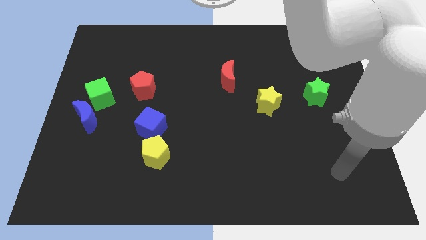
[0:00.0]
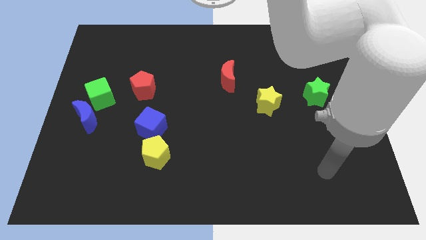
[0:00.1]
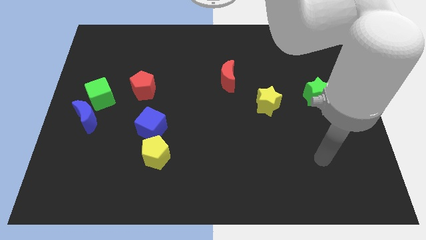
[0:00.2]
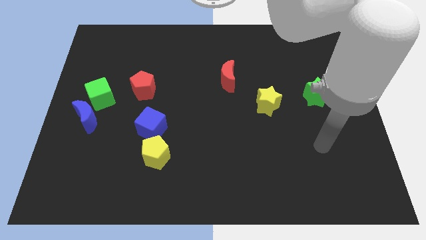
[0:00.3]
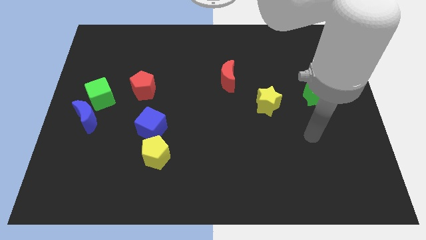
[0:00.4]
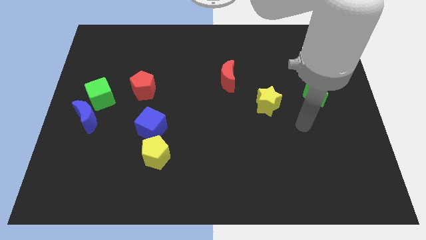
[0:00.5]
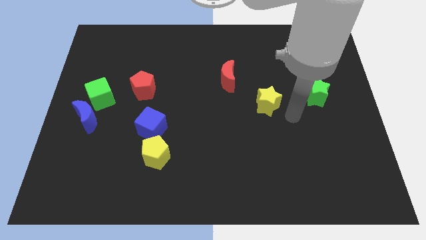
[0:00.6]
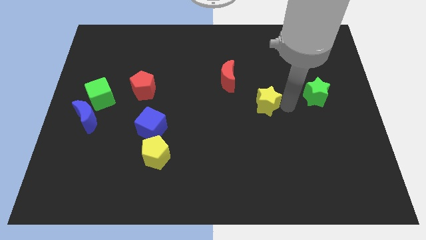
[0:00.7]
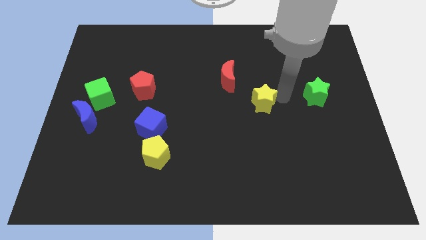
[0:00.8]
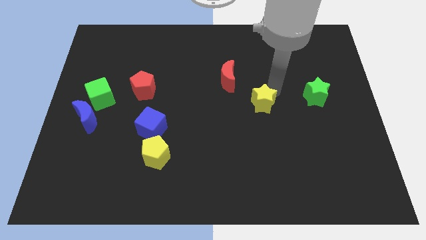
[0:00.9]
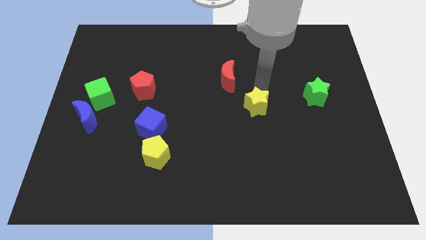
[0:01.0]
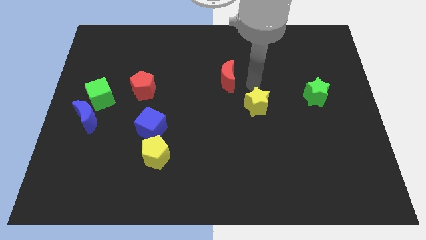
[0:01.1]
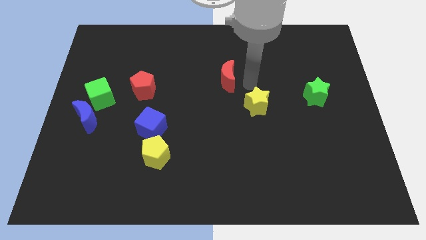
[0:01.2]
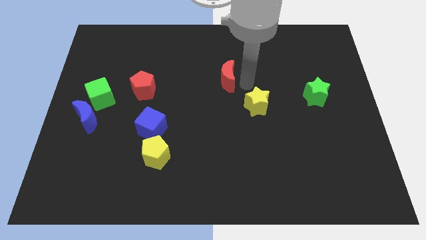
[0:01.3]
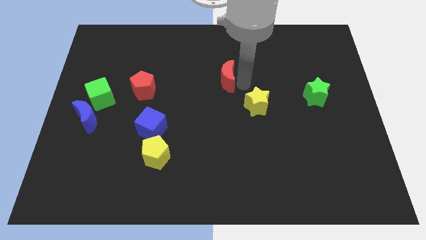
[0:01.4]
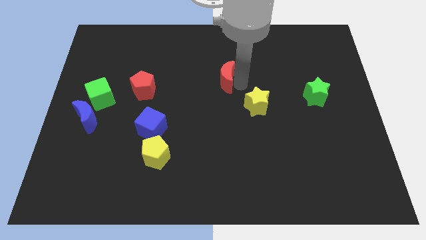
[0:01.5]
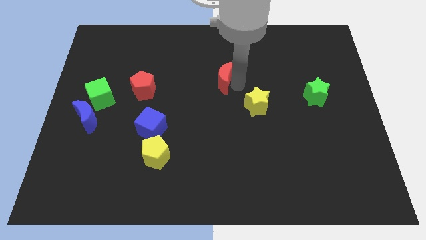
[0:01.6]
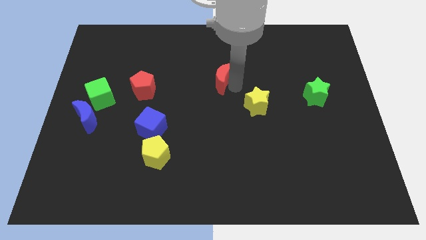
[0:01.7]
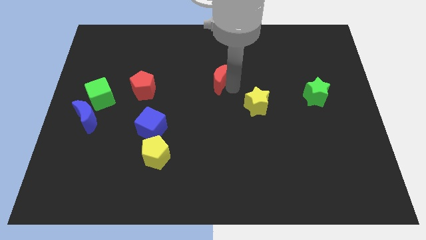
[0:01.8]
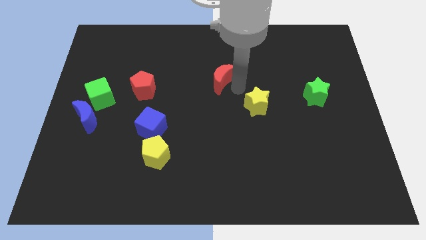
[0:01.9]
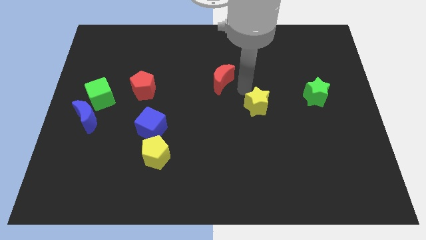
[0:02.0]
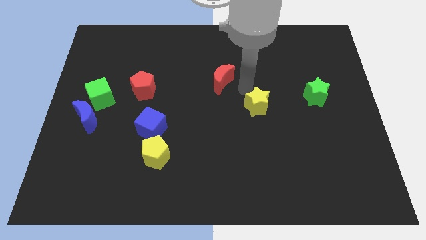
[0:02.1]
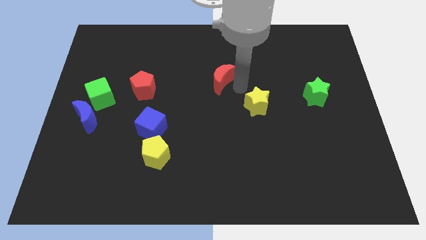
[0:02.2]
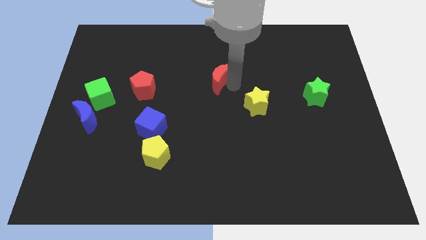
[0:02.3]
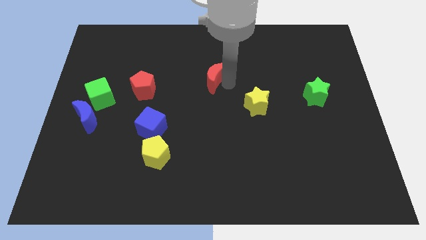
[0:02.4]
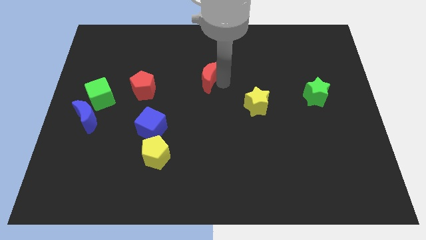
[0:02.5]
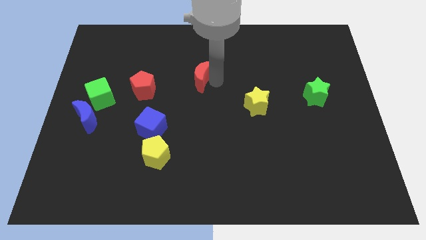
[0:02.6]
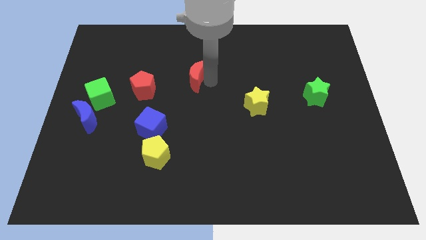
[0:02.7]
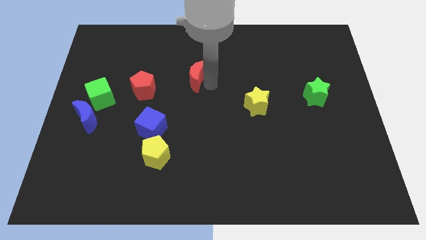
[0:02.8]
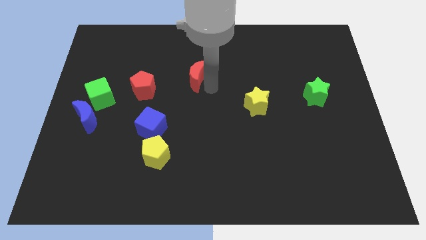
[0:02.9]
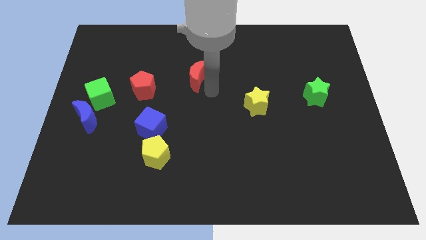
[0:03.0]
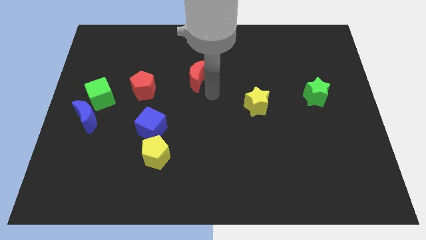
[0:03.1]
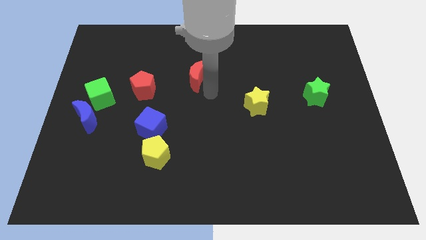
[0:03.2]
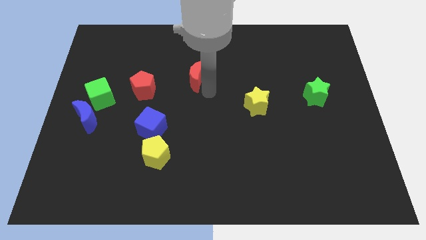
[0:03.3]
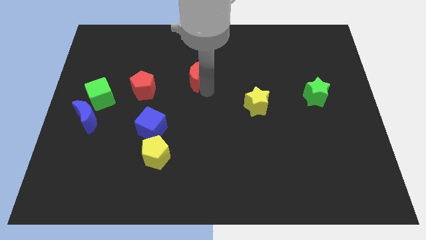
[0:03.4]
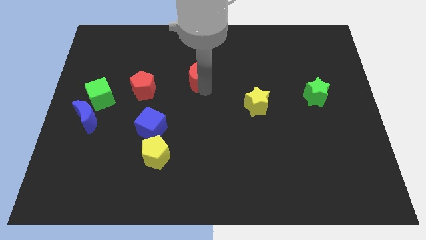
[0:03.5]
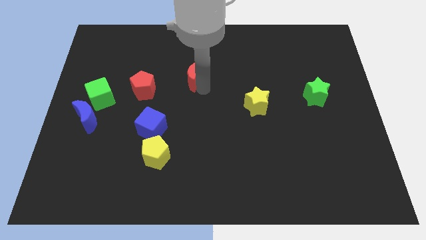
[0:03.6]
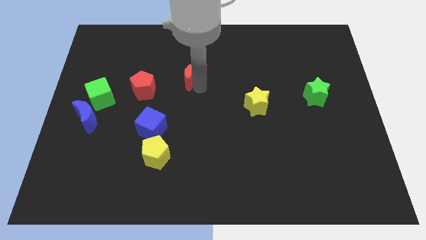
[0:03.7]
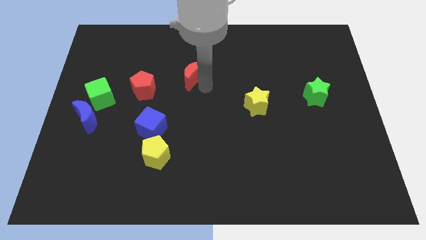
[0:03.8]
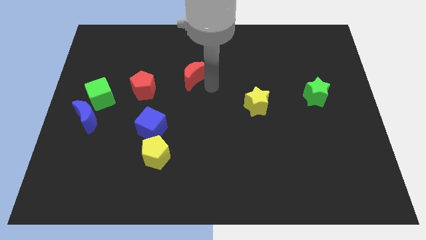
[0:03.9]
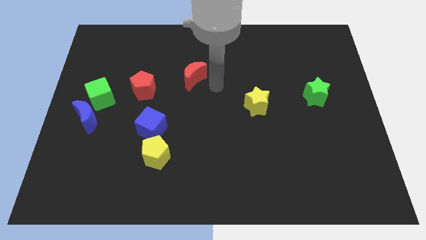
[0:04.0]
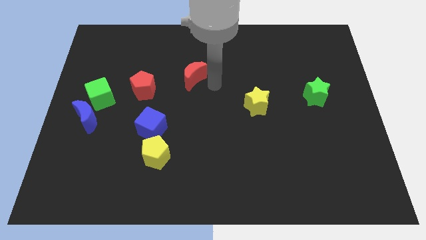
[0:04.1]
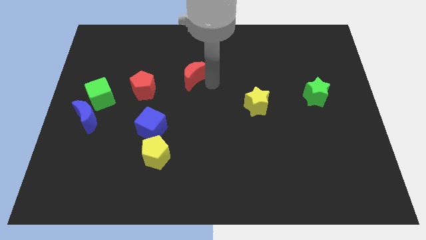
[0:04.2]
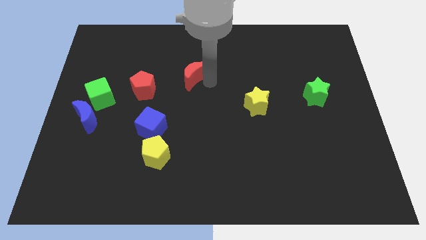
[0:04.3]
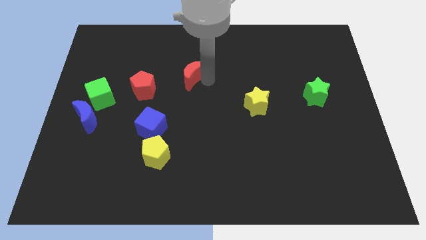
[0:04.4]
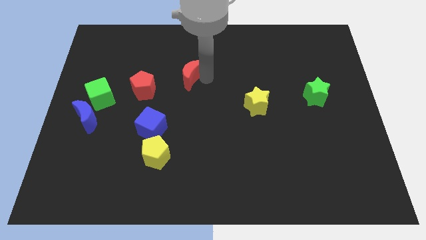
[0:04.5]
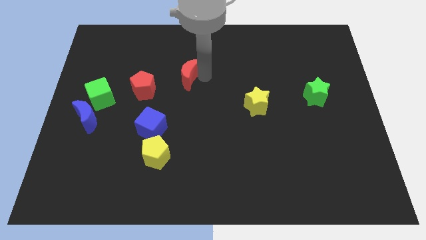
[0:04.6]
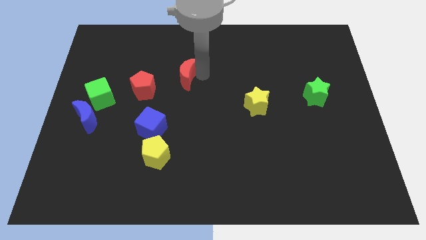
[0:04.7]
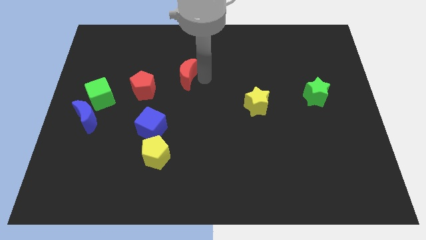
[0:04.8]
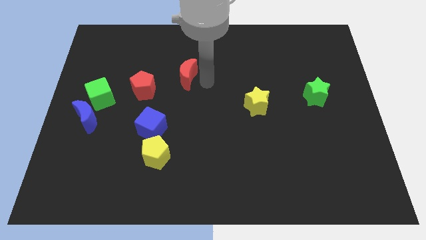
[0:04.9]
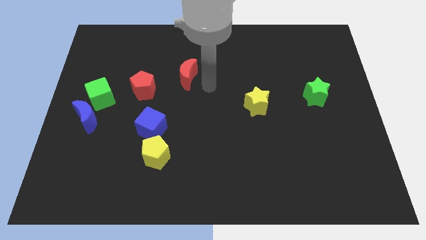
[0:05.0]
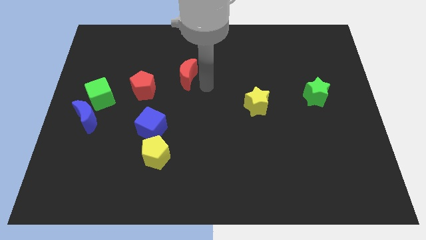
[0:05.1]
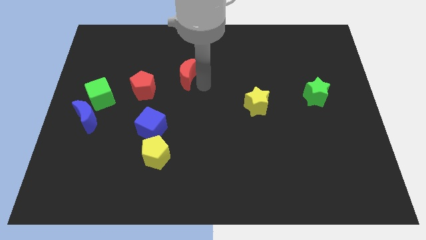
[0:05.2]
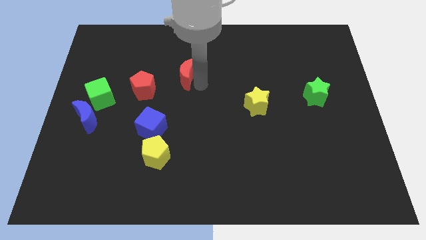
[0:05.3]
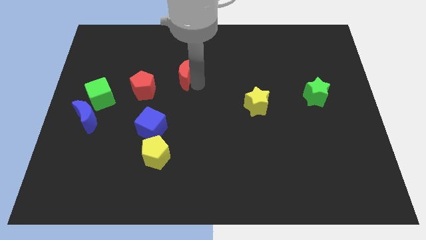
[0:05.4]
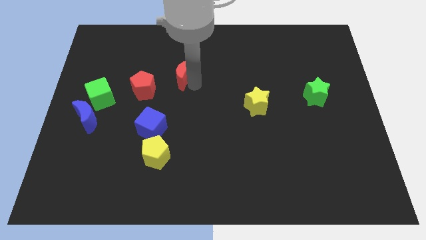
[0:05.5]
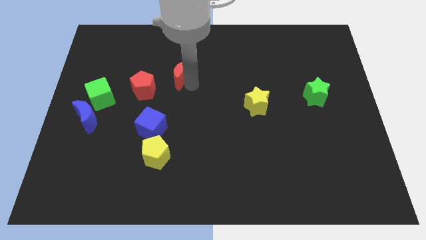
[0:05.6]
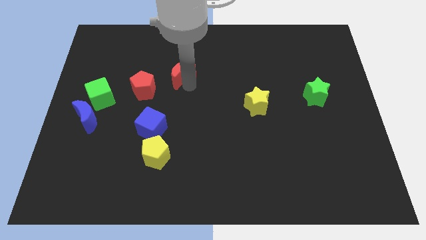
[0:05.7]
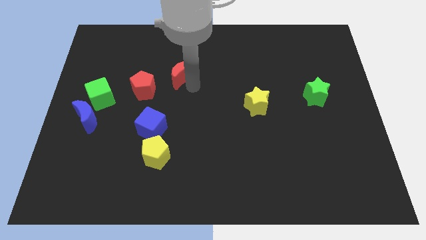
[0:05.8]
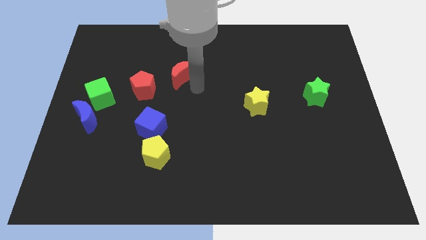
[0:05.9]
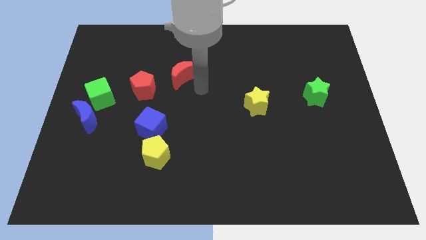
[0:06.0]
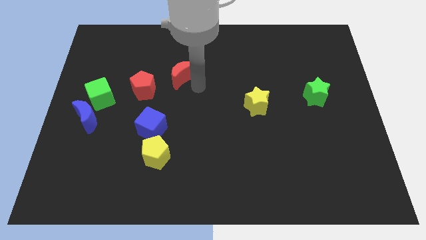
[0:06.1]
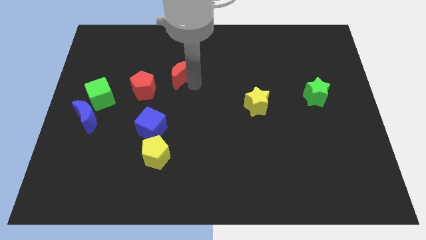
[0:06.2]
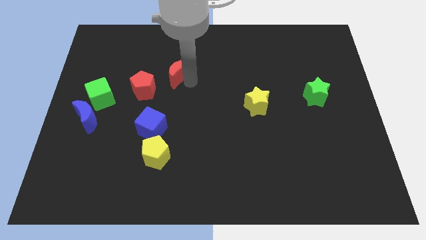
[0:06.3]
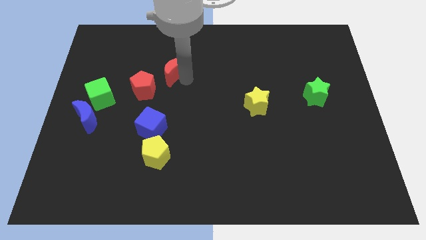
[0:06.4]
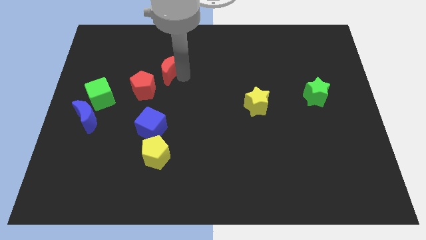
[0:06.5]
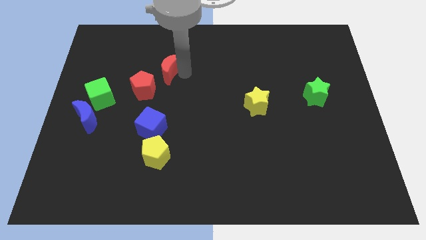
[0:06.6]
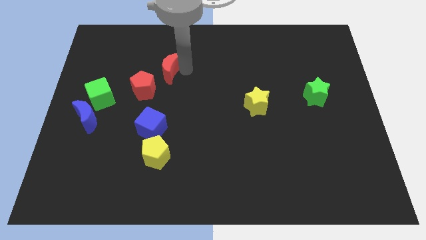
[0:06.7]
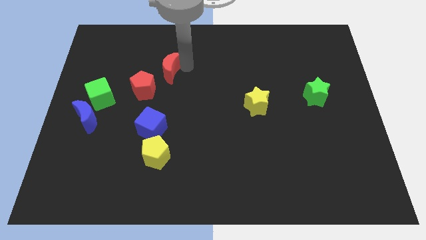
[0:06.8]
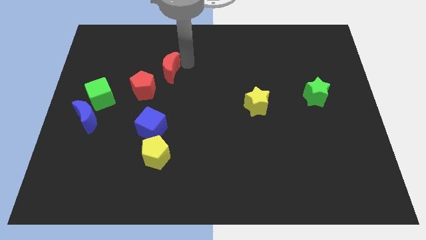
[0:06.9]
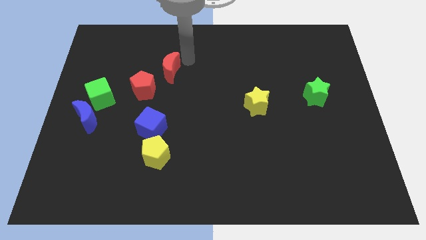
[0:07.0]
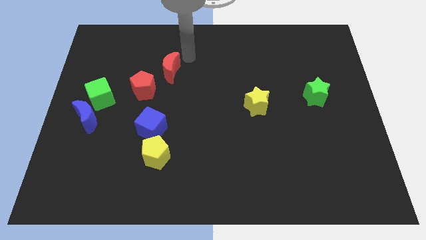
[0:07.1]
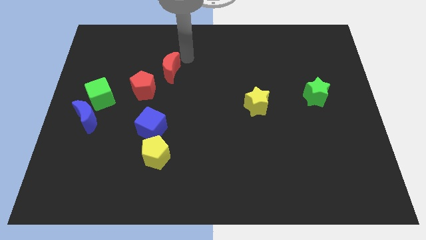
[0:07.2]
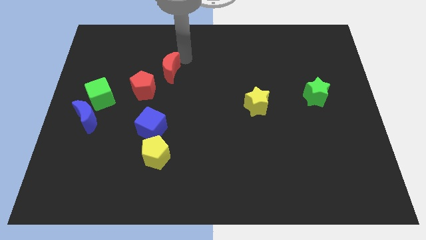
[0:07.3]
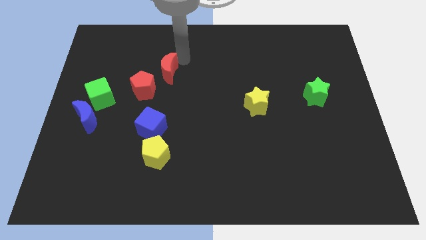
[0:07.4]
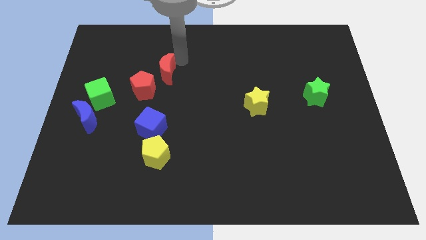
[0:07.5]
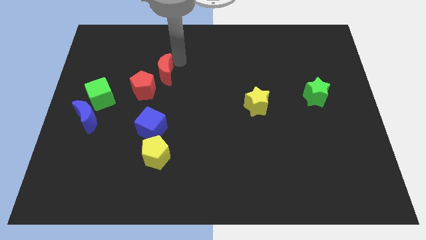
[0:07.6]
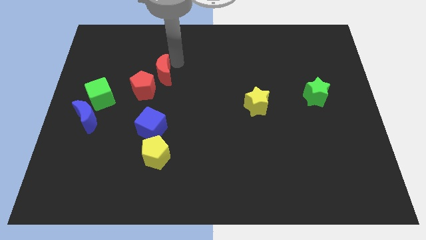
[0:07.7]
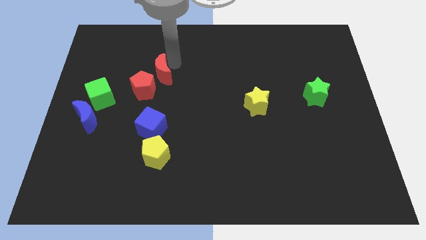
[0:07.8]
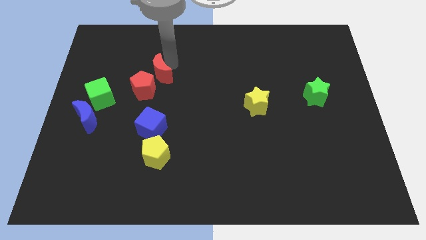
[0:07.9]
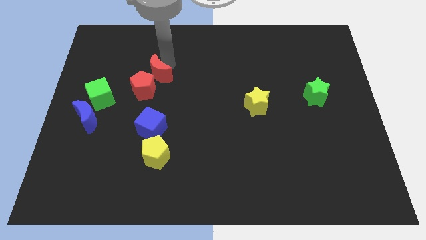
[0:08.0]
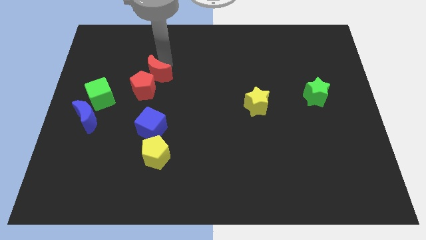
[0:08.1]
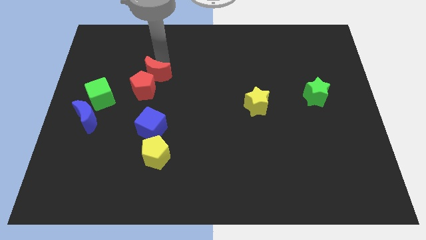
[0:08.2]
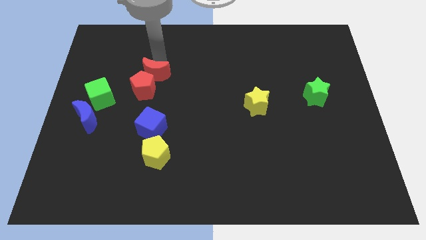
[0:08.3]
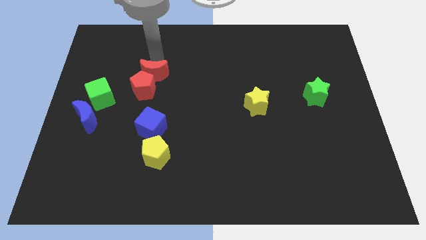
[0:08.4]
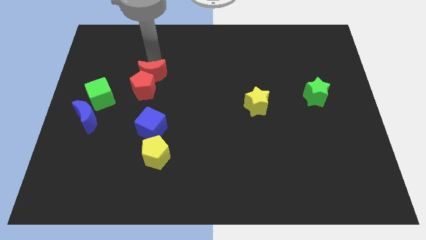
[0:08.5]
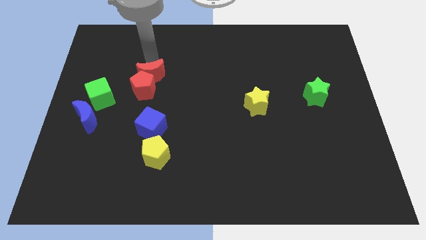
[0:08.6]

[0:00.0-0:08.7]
move the red moon to the top of the blue cube
